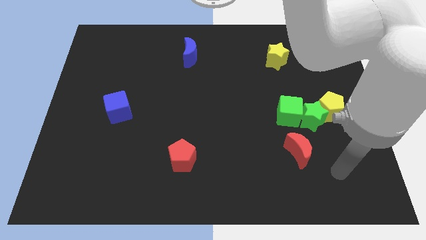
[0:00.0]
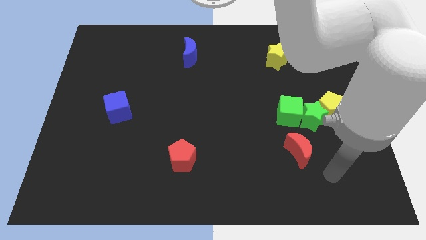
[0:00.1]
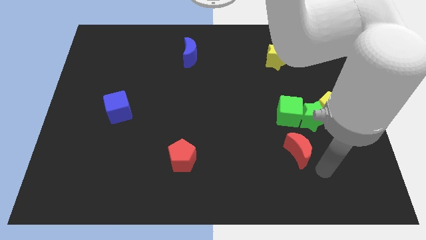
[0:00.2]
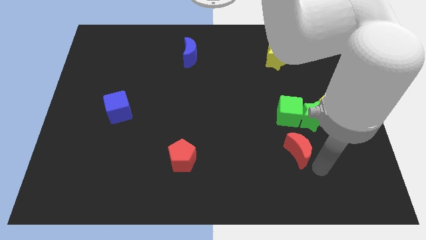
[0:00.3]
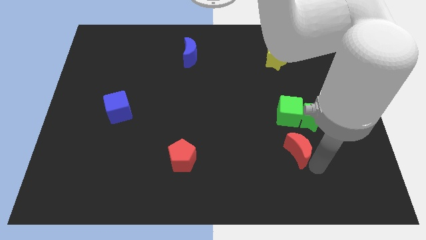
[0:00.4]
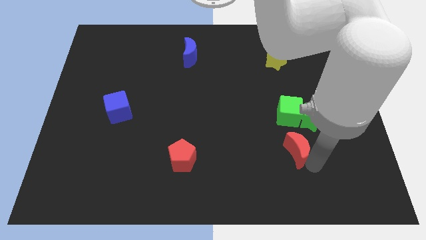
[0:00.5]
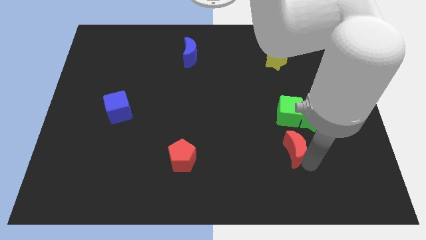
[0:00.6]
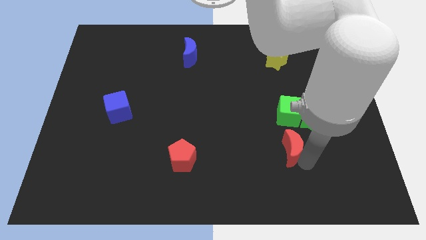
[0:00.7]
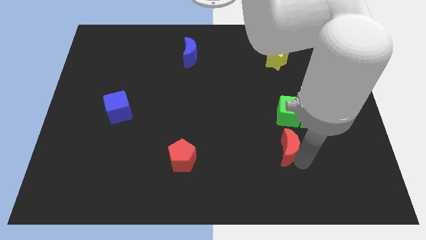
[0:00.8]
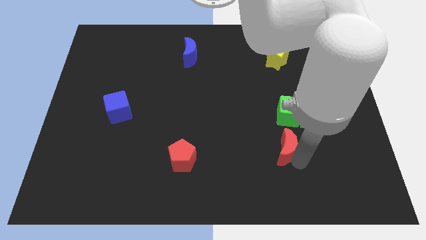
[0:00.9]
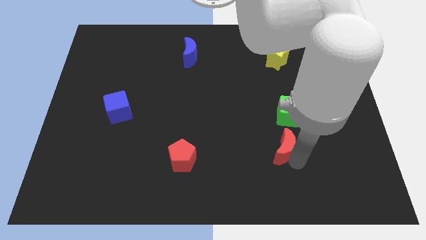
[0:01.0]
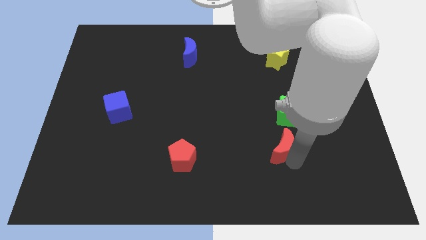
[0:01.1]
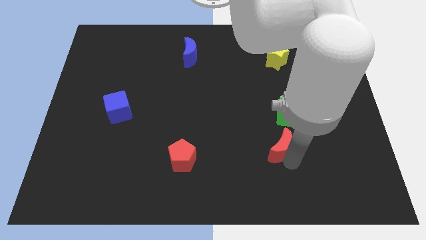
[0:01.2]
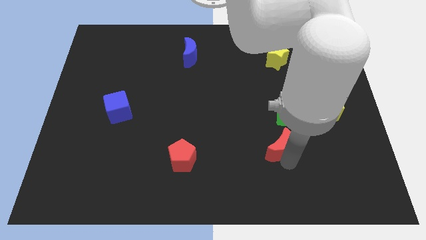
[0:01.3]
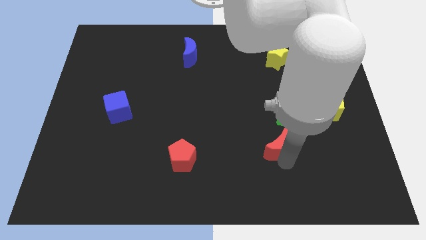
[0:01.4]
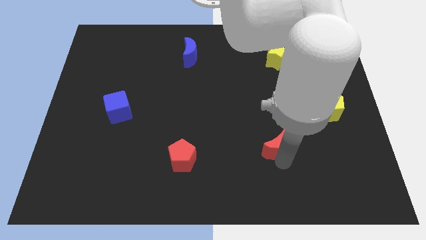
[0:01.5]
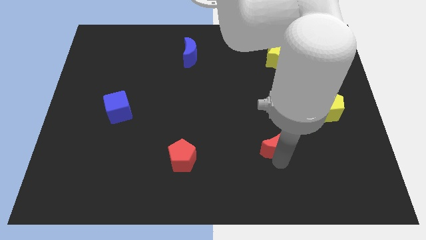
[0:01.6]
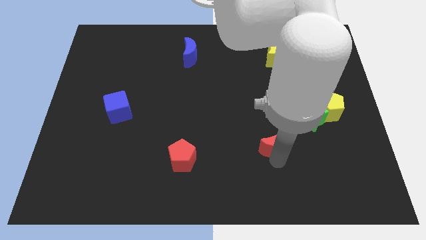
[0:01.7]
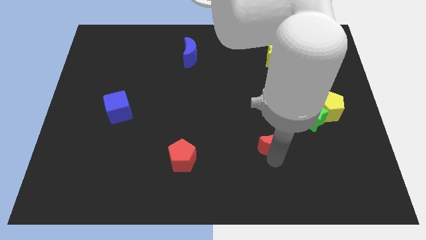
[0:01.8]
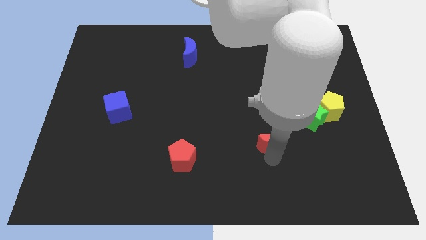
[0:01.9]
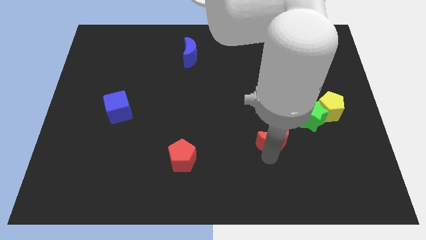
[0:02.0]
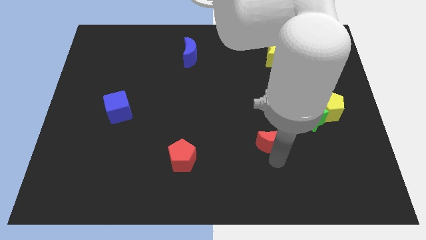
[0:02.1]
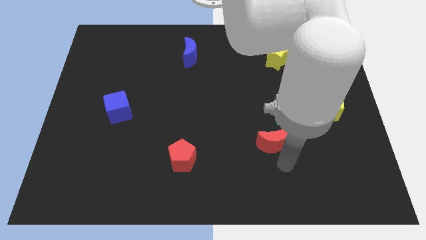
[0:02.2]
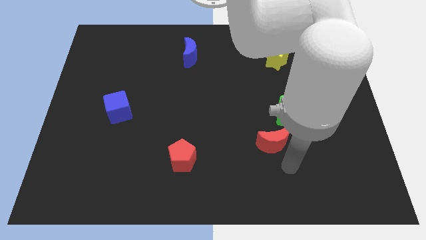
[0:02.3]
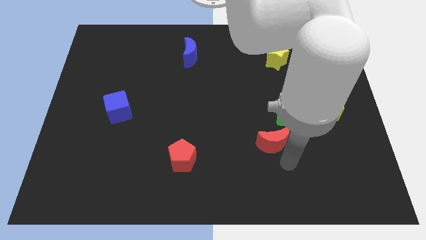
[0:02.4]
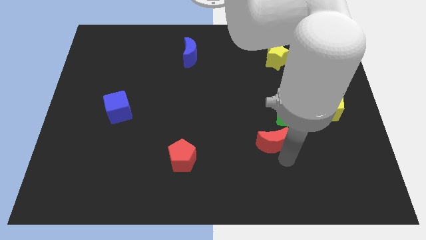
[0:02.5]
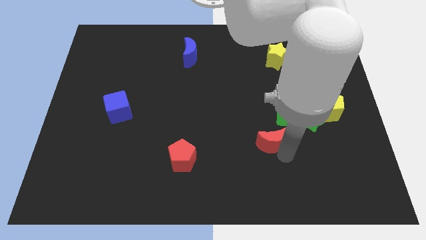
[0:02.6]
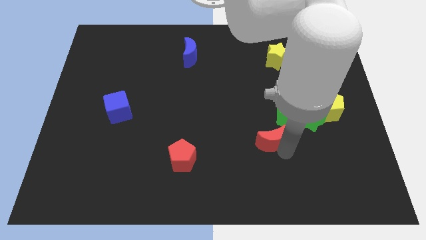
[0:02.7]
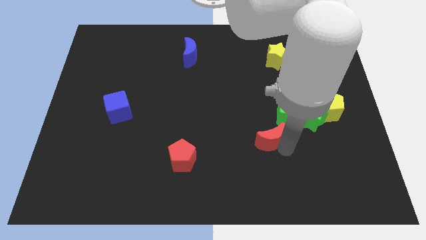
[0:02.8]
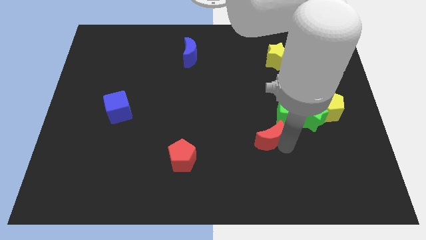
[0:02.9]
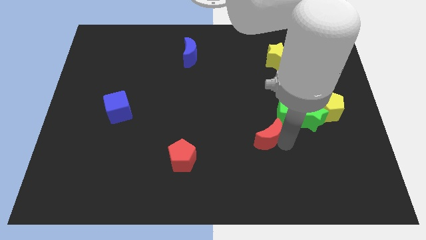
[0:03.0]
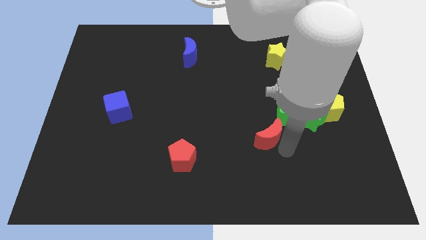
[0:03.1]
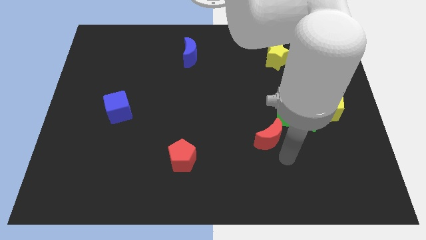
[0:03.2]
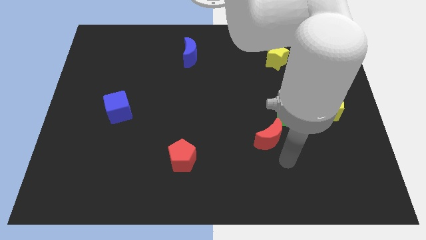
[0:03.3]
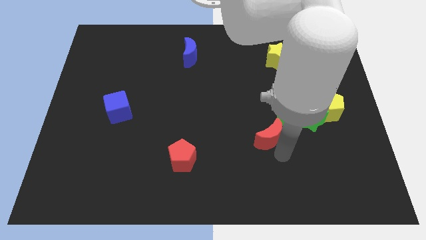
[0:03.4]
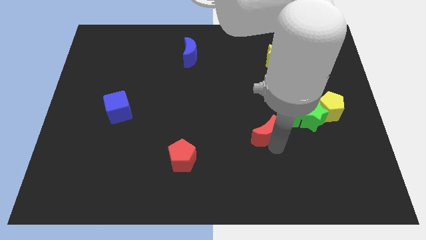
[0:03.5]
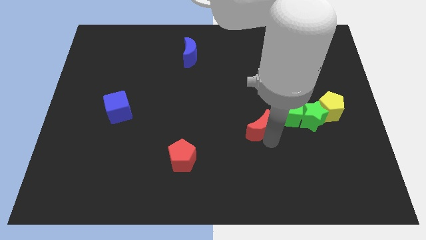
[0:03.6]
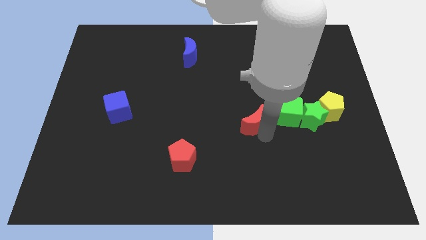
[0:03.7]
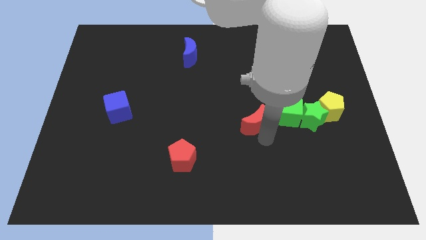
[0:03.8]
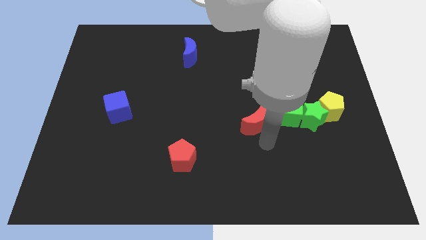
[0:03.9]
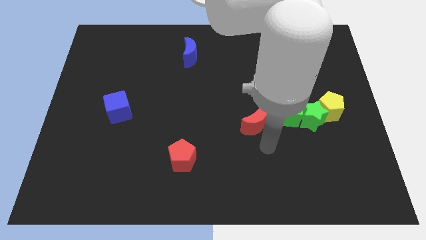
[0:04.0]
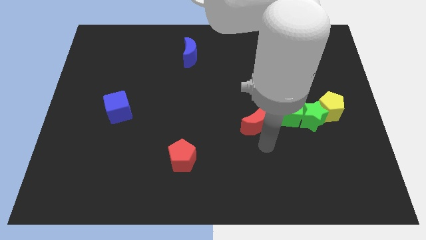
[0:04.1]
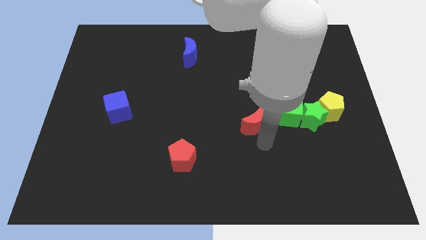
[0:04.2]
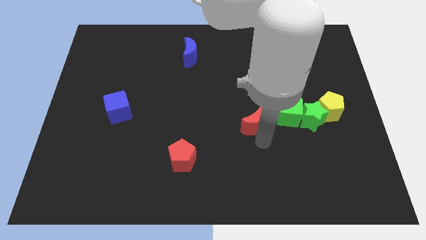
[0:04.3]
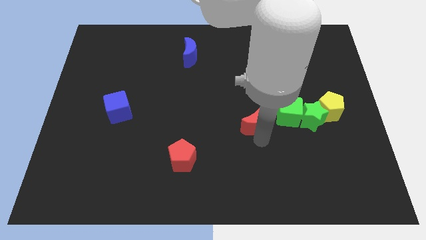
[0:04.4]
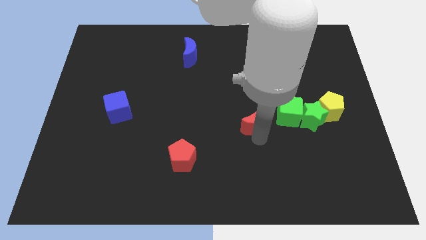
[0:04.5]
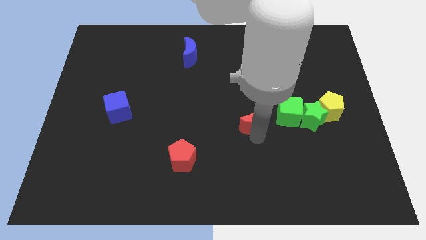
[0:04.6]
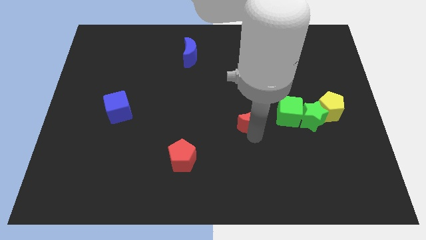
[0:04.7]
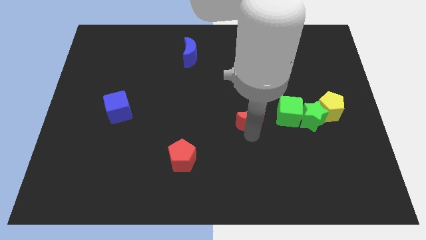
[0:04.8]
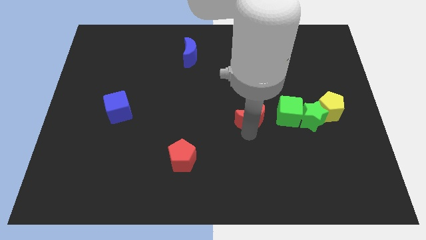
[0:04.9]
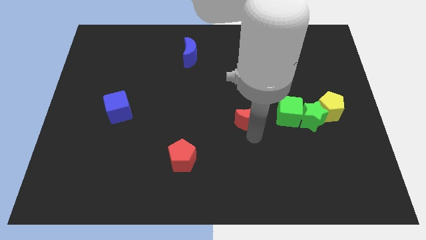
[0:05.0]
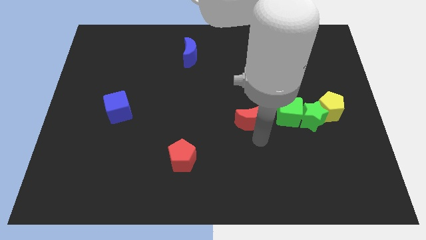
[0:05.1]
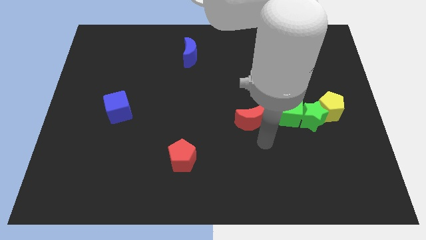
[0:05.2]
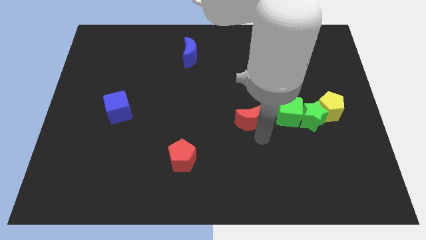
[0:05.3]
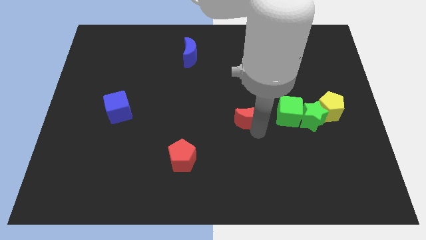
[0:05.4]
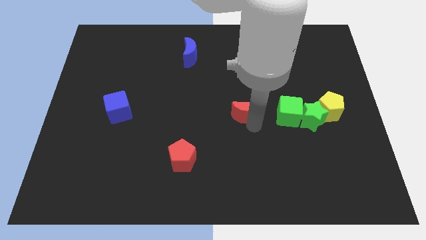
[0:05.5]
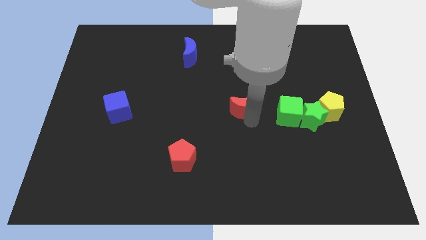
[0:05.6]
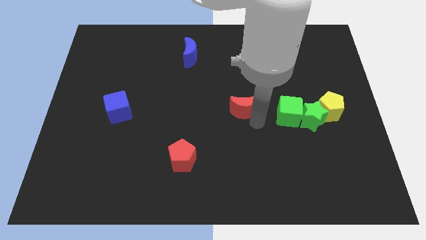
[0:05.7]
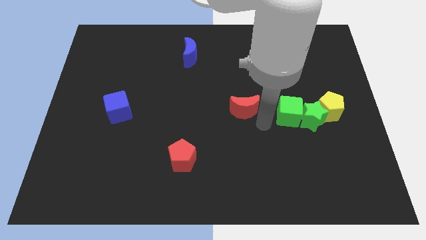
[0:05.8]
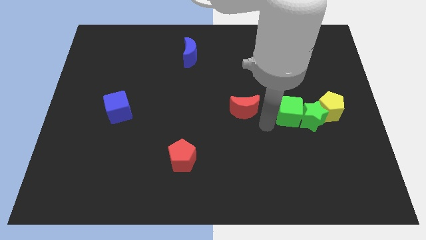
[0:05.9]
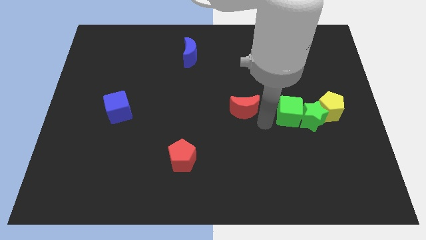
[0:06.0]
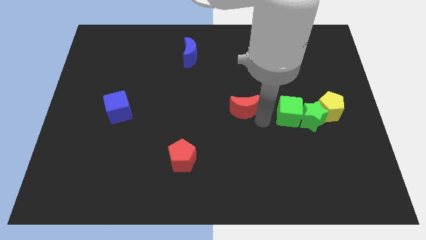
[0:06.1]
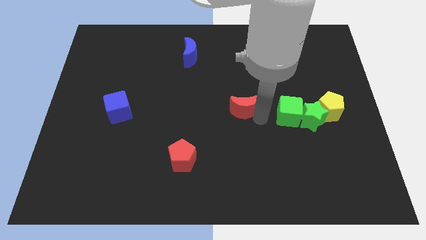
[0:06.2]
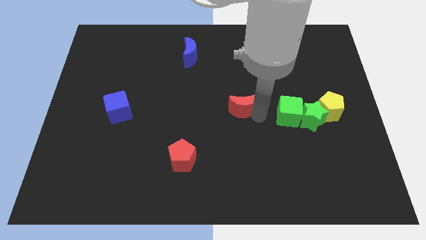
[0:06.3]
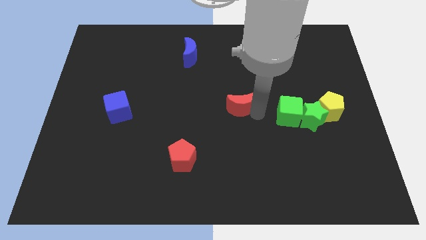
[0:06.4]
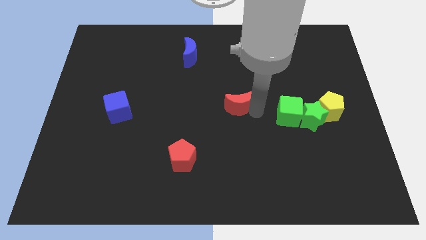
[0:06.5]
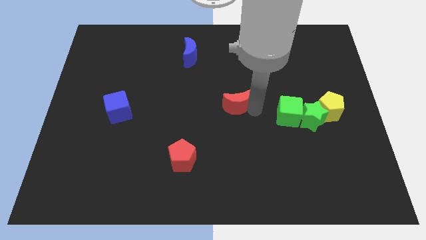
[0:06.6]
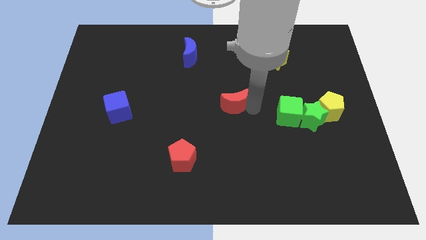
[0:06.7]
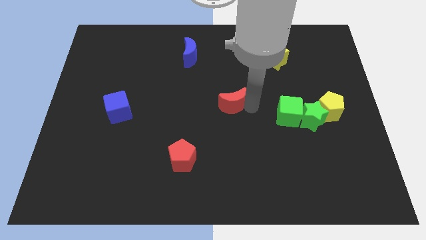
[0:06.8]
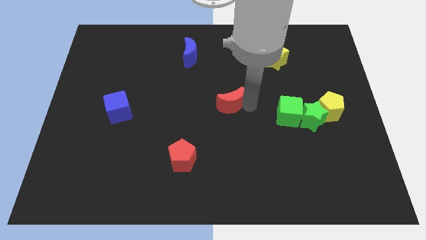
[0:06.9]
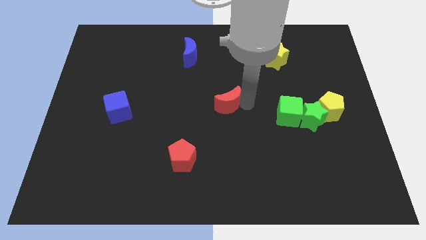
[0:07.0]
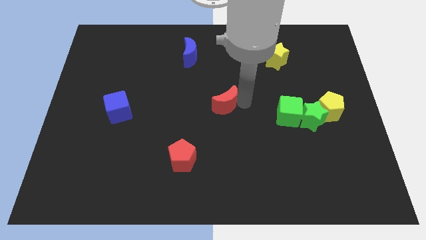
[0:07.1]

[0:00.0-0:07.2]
move the red moon upwards and to the left diagonally

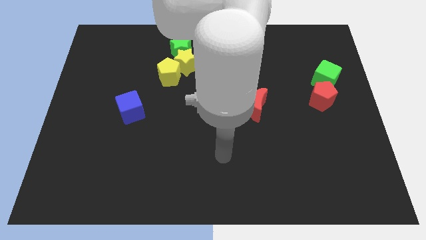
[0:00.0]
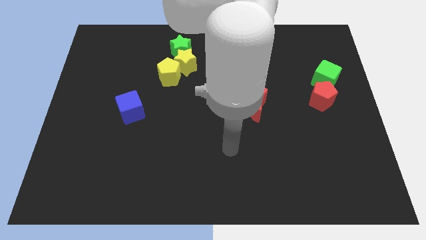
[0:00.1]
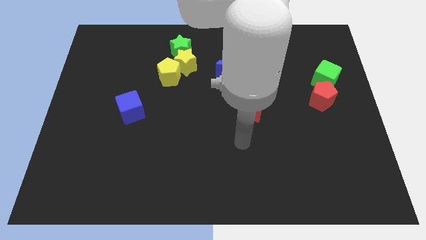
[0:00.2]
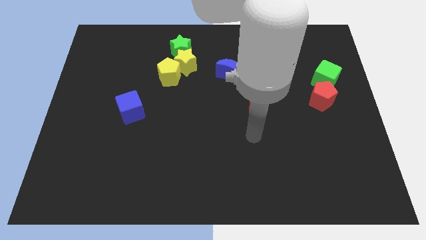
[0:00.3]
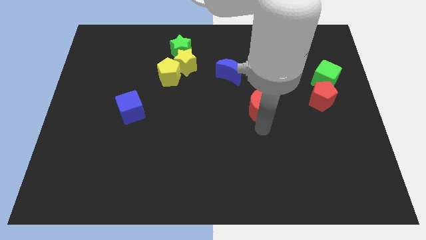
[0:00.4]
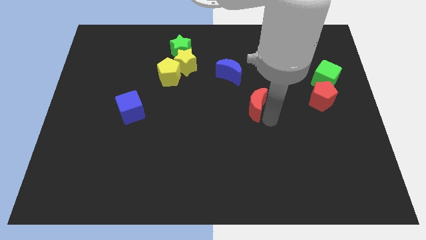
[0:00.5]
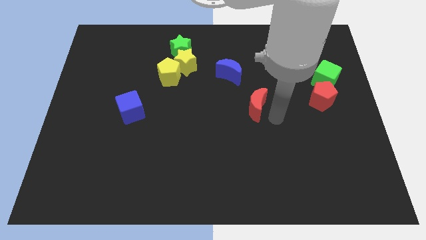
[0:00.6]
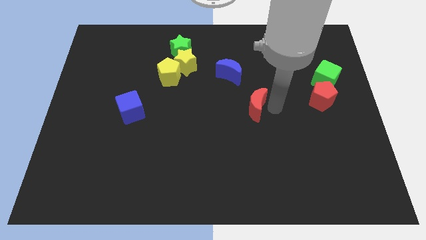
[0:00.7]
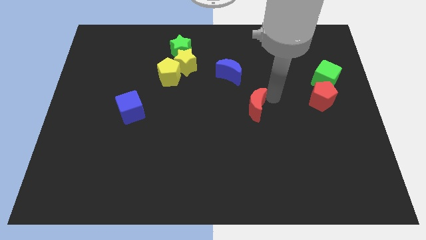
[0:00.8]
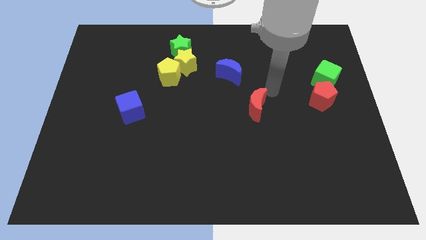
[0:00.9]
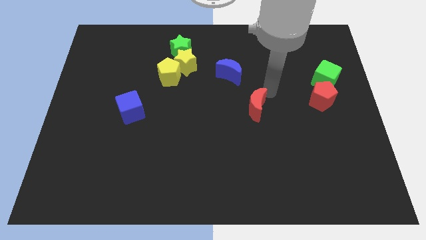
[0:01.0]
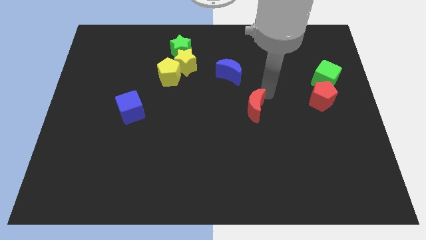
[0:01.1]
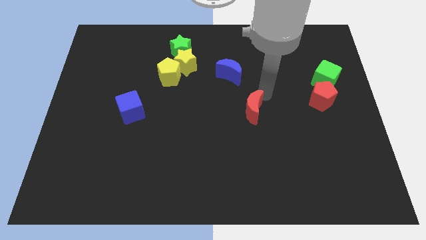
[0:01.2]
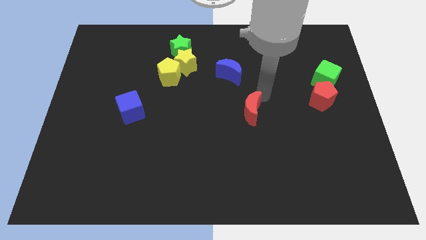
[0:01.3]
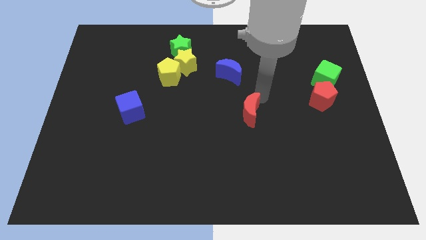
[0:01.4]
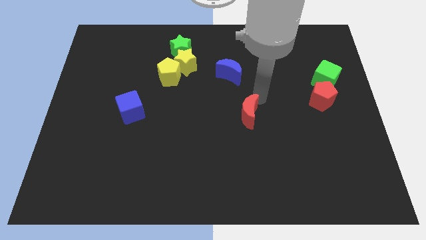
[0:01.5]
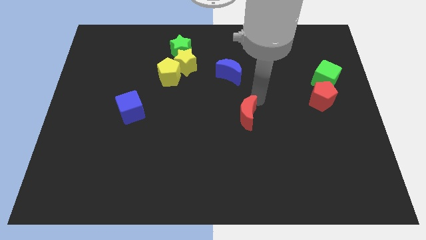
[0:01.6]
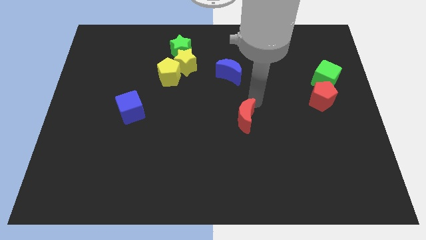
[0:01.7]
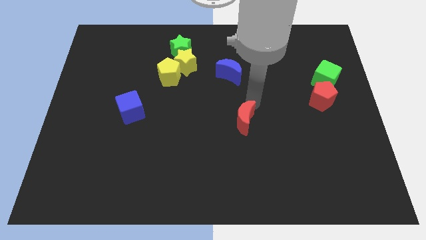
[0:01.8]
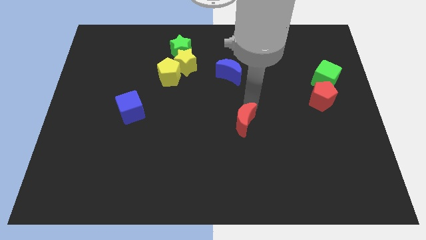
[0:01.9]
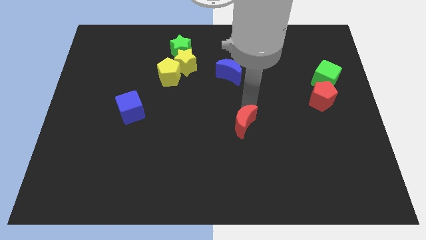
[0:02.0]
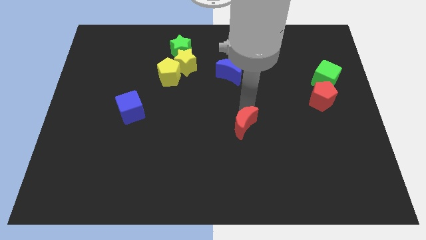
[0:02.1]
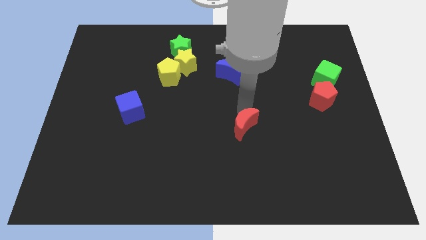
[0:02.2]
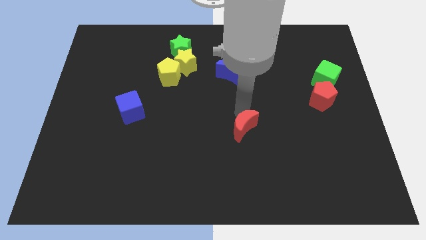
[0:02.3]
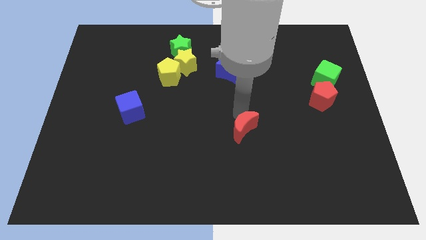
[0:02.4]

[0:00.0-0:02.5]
move the red moon down and to the left slightly
